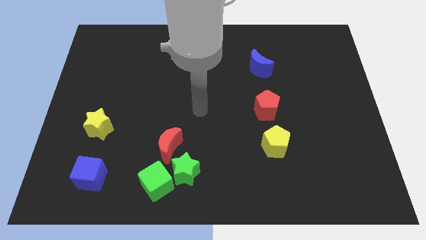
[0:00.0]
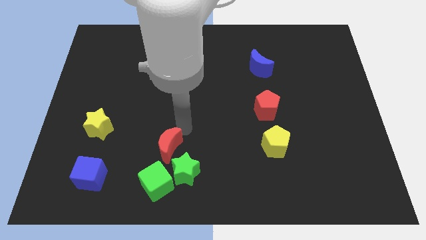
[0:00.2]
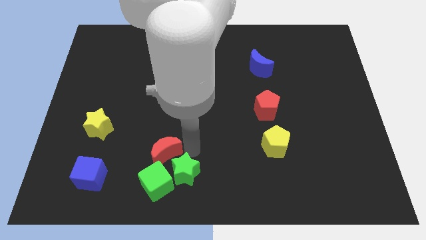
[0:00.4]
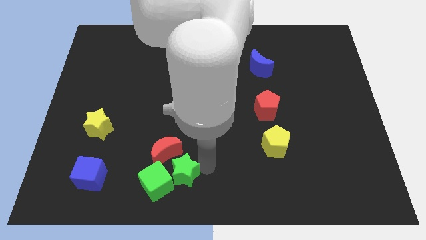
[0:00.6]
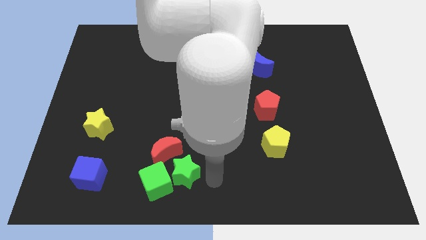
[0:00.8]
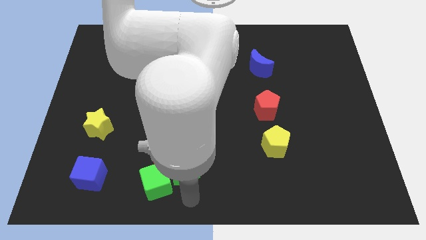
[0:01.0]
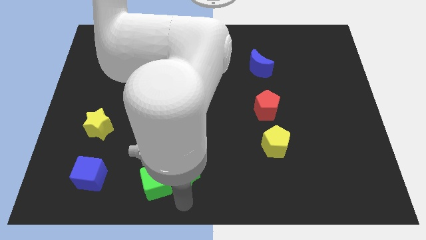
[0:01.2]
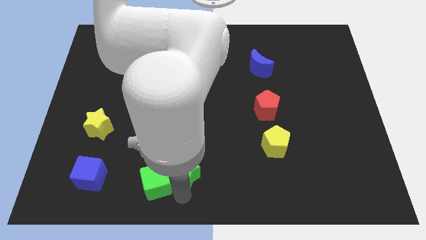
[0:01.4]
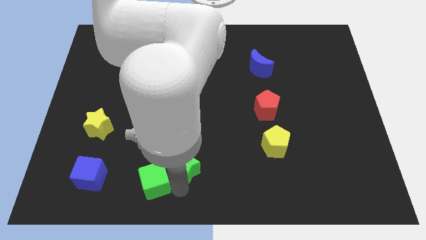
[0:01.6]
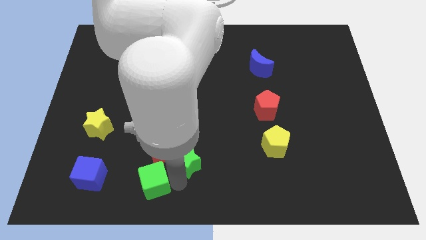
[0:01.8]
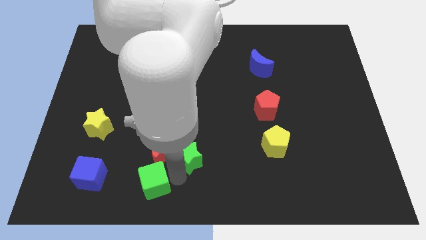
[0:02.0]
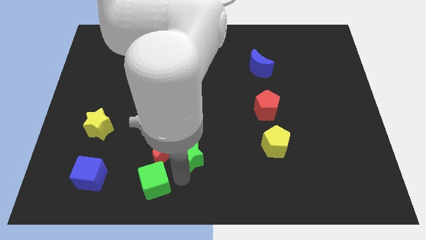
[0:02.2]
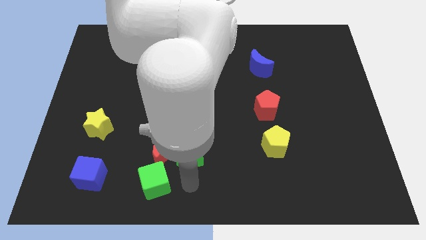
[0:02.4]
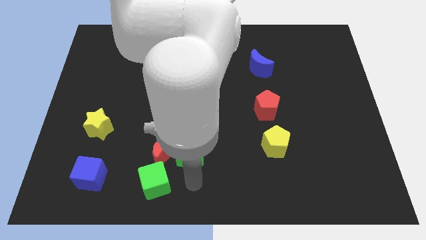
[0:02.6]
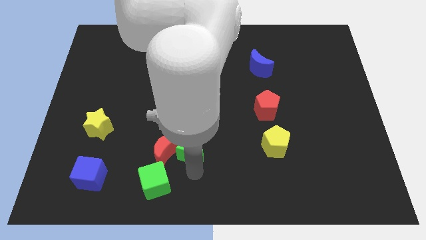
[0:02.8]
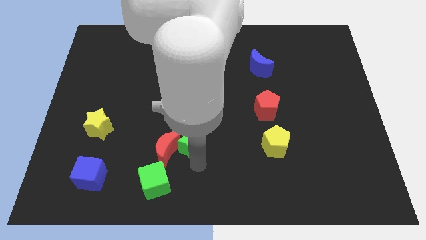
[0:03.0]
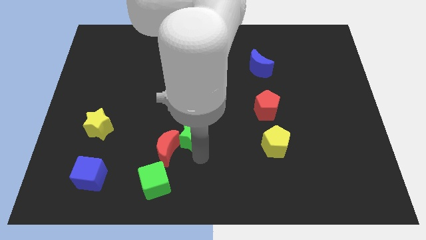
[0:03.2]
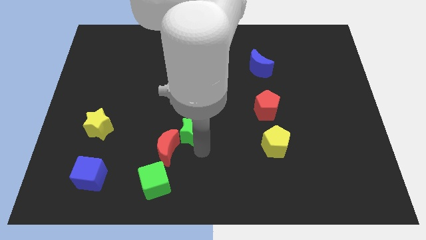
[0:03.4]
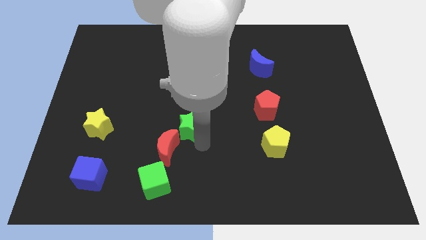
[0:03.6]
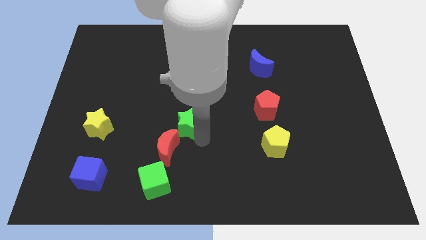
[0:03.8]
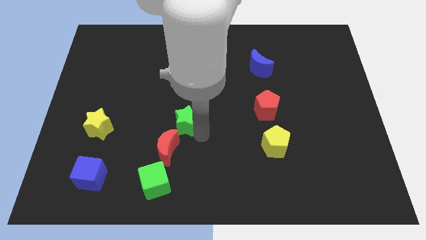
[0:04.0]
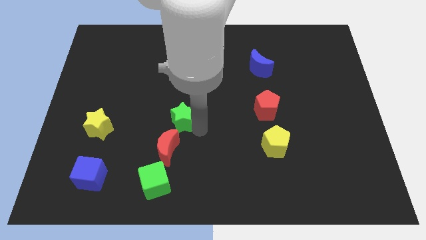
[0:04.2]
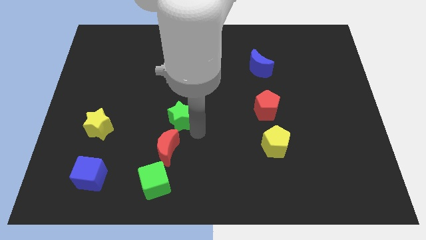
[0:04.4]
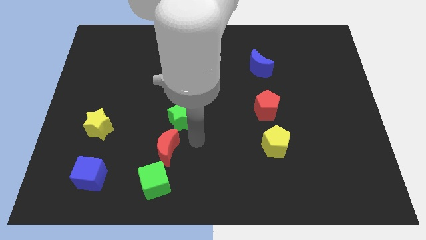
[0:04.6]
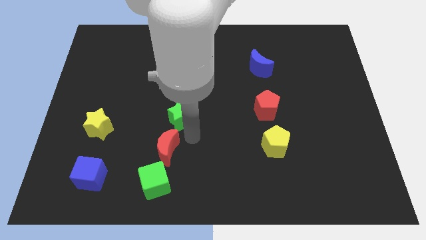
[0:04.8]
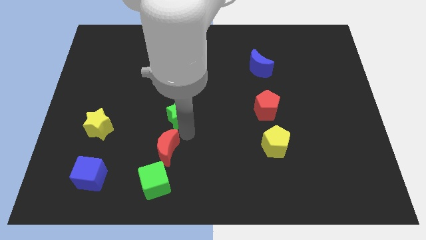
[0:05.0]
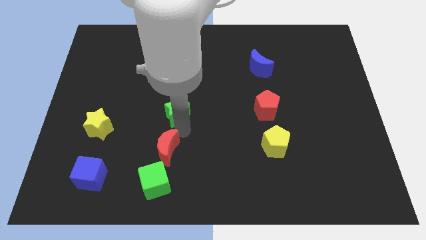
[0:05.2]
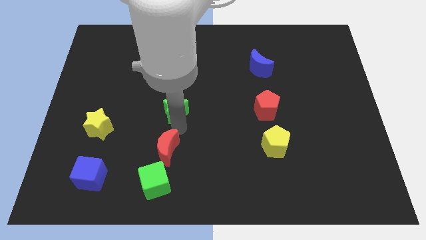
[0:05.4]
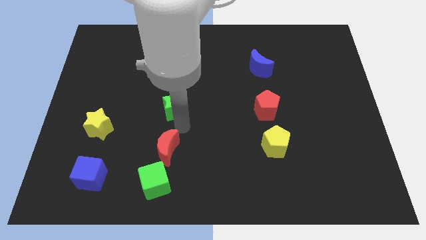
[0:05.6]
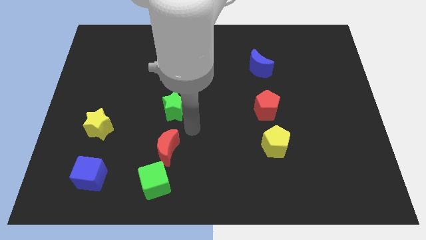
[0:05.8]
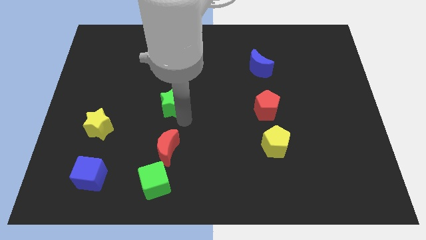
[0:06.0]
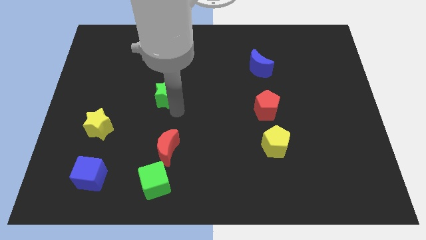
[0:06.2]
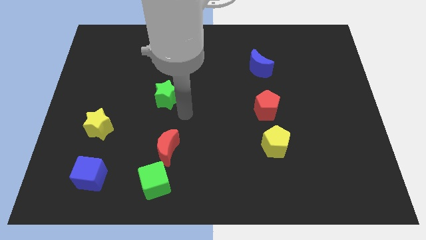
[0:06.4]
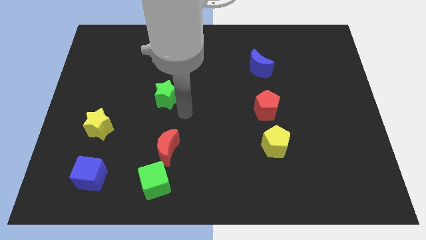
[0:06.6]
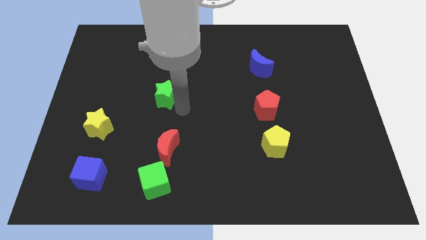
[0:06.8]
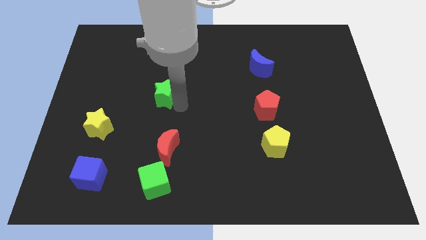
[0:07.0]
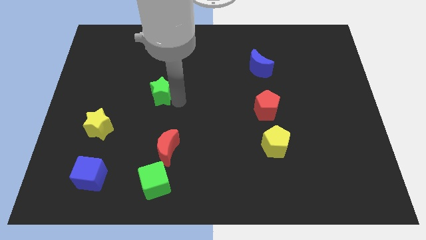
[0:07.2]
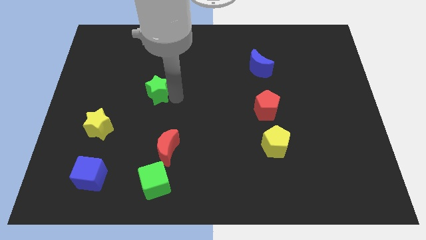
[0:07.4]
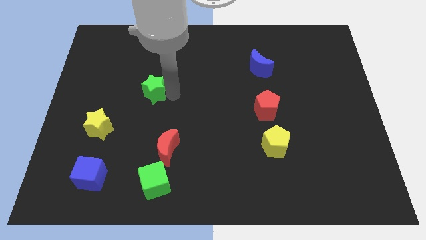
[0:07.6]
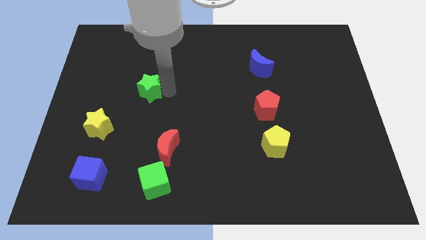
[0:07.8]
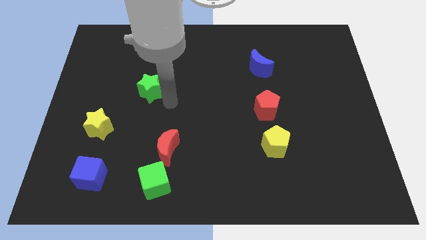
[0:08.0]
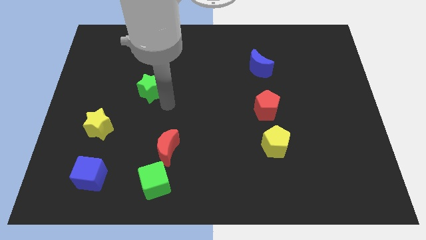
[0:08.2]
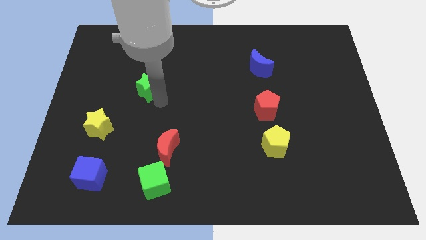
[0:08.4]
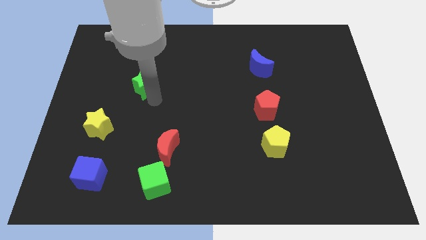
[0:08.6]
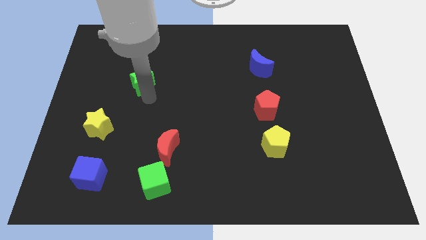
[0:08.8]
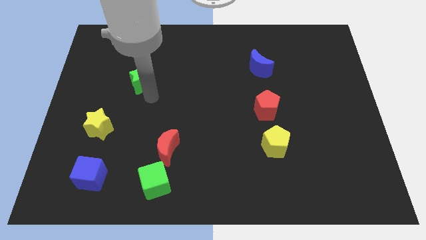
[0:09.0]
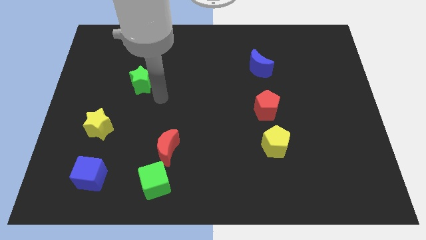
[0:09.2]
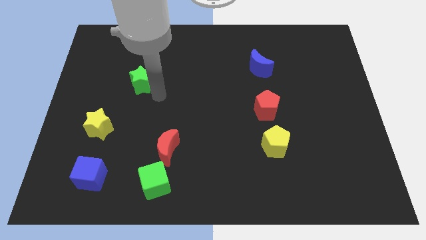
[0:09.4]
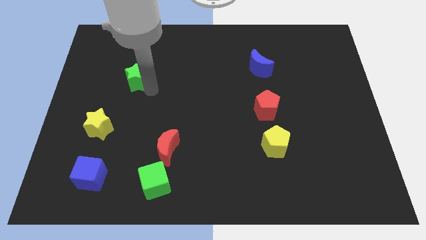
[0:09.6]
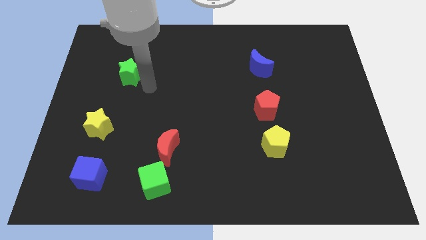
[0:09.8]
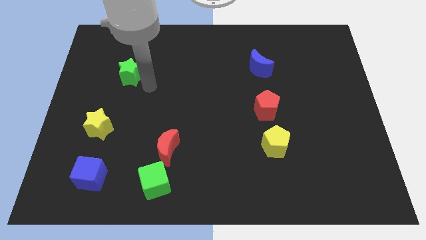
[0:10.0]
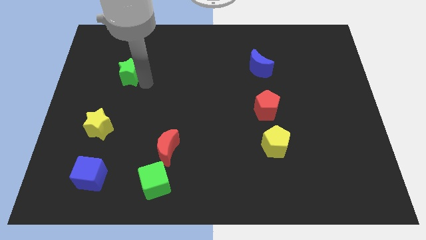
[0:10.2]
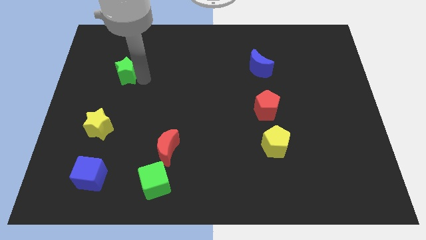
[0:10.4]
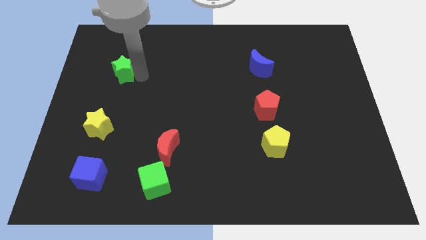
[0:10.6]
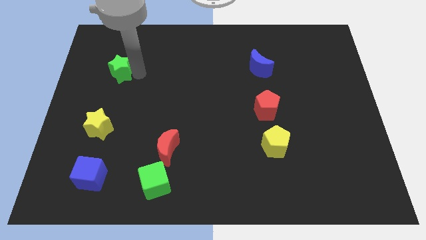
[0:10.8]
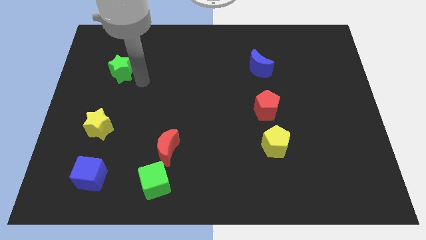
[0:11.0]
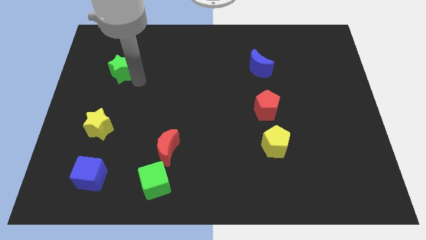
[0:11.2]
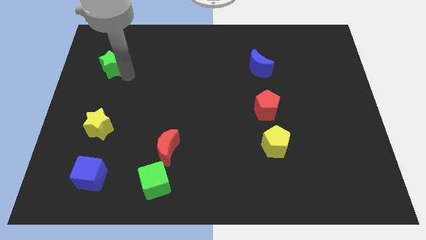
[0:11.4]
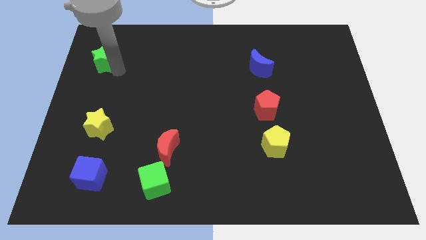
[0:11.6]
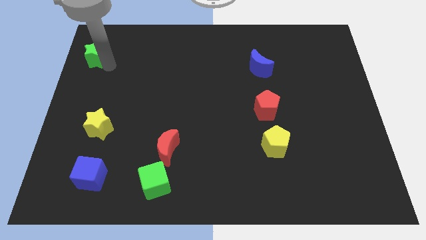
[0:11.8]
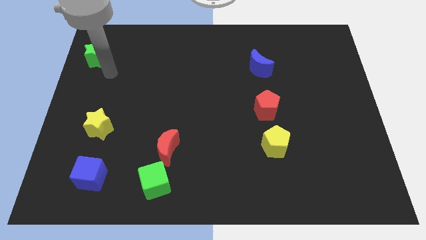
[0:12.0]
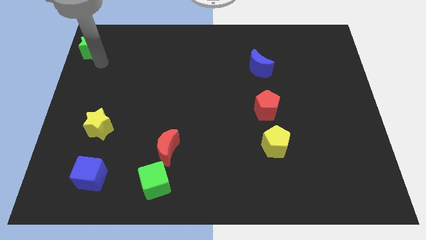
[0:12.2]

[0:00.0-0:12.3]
slide the green star to the top left of the board

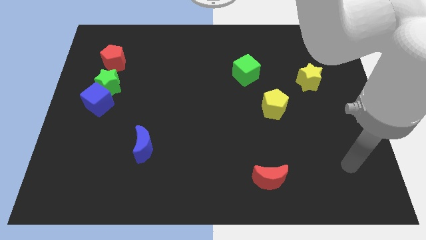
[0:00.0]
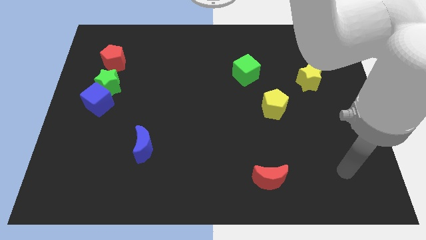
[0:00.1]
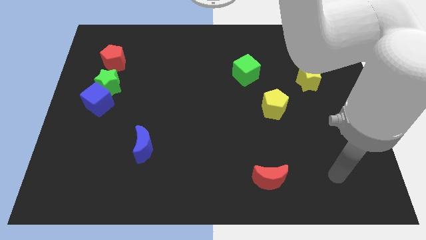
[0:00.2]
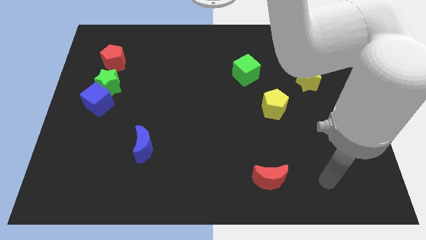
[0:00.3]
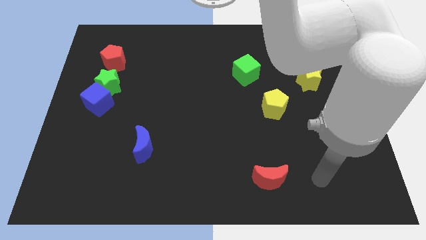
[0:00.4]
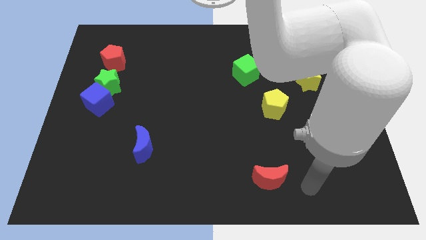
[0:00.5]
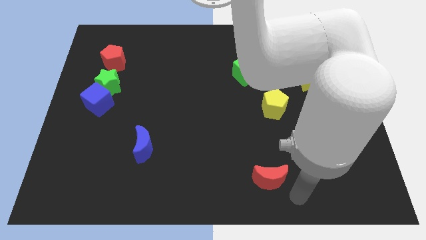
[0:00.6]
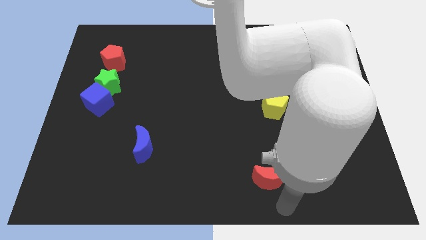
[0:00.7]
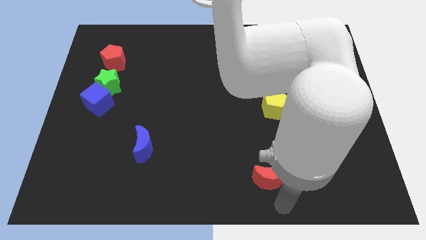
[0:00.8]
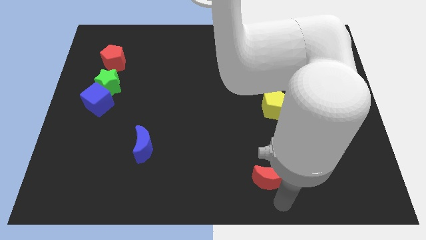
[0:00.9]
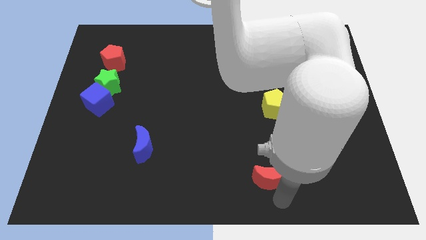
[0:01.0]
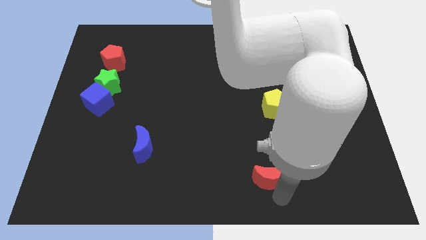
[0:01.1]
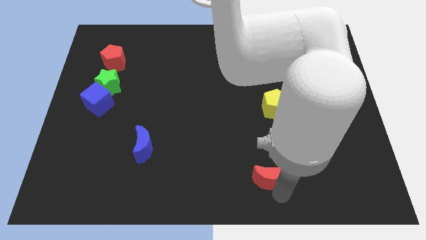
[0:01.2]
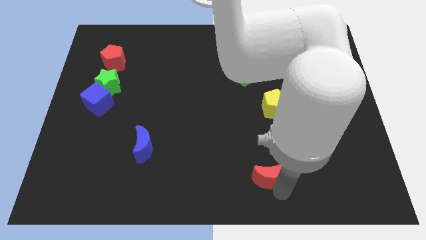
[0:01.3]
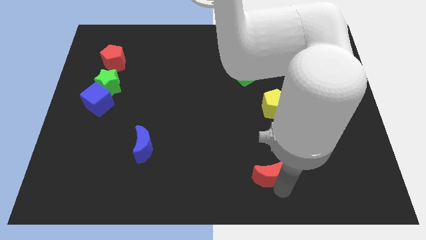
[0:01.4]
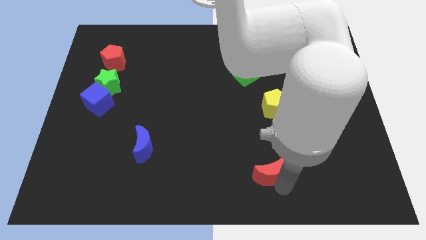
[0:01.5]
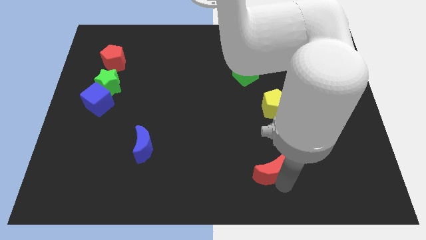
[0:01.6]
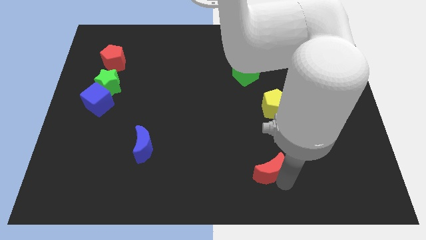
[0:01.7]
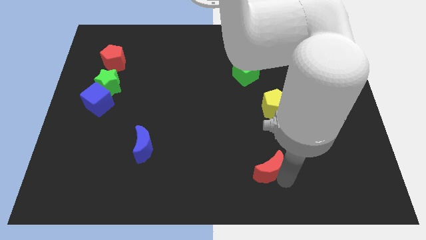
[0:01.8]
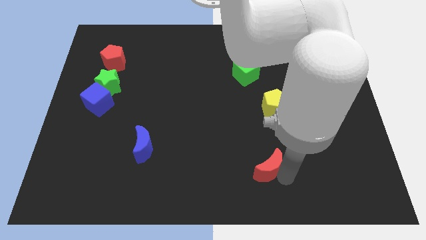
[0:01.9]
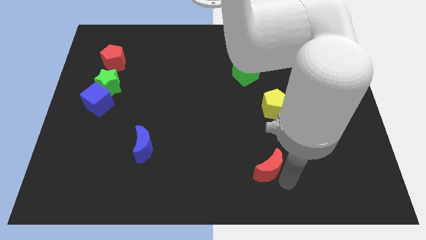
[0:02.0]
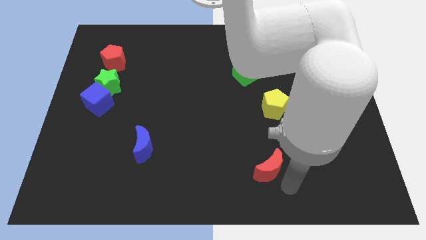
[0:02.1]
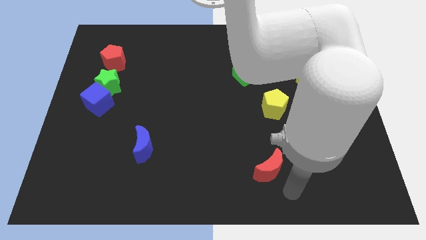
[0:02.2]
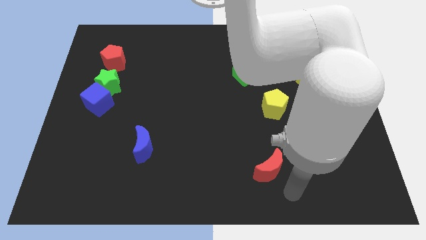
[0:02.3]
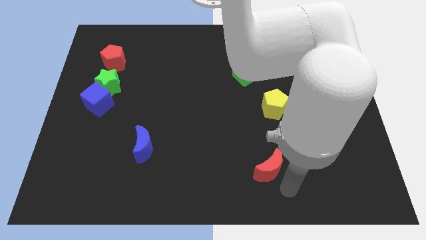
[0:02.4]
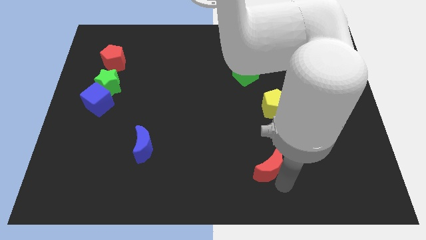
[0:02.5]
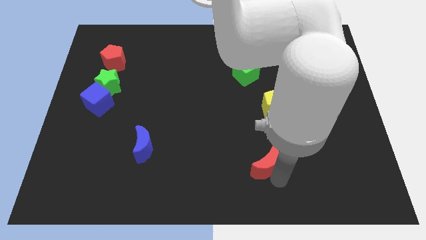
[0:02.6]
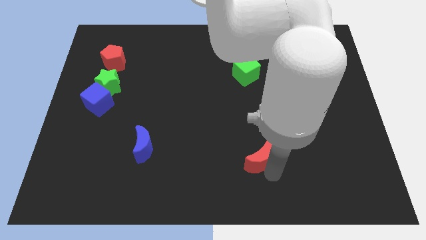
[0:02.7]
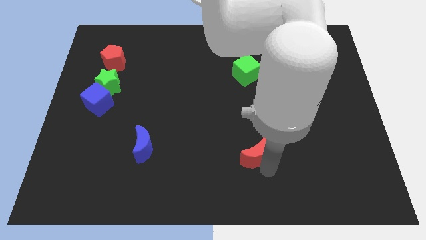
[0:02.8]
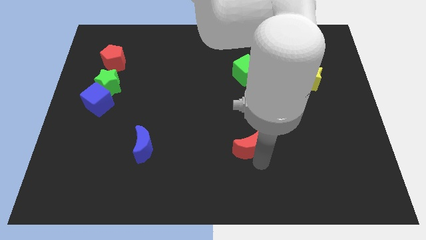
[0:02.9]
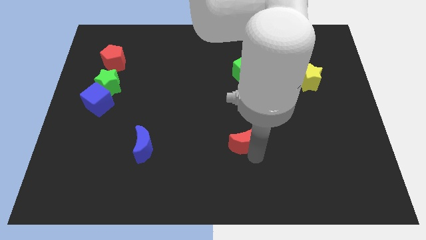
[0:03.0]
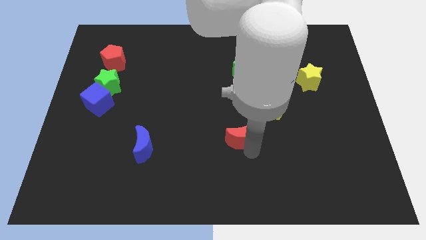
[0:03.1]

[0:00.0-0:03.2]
push the red moon to the center of the board
